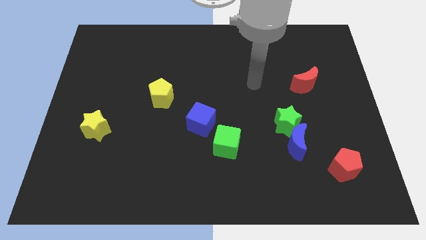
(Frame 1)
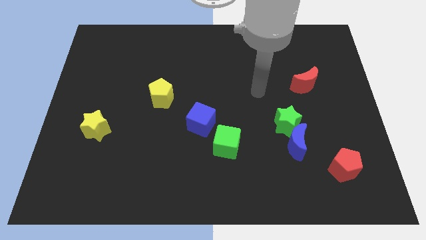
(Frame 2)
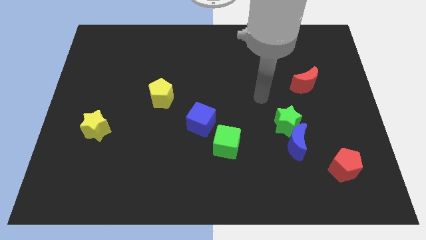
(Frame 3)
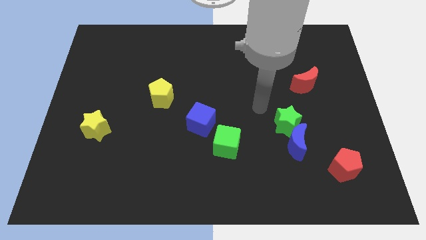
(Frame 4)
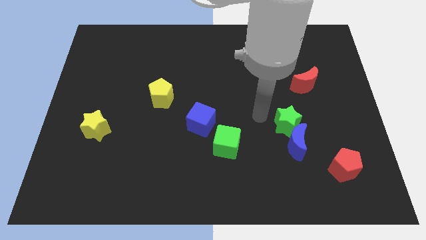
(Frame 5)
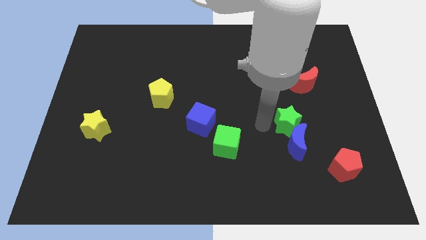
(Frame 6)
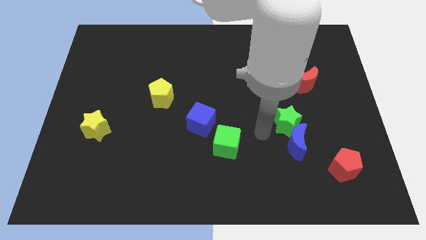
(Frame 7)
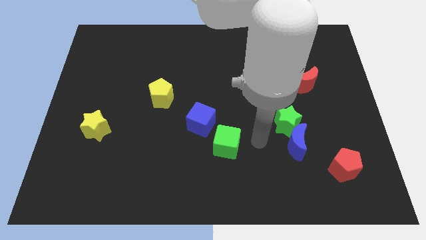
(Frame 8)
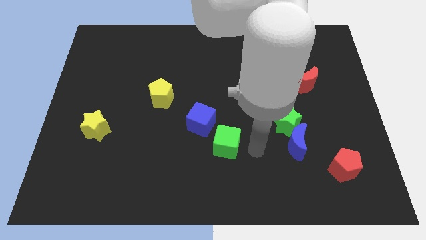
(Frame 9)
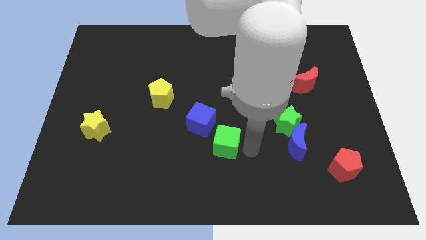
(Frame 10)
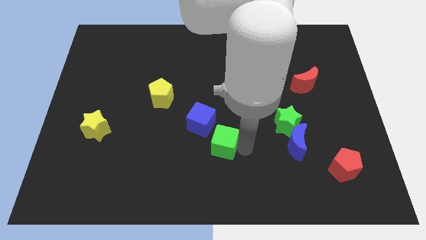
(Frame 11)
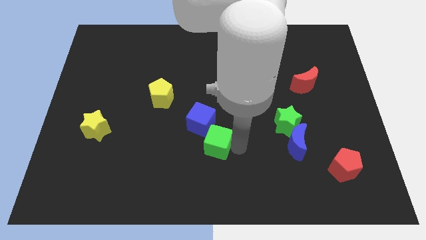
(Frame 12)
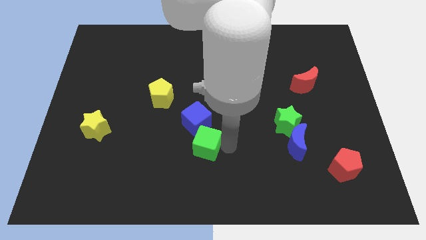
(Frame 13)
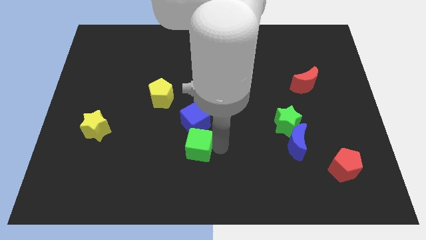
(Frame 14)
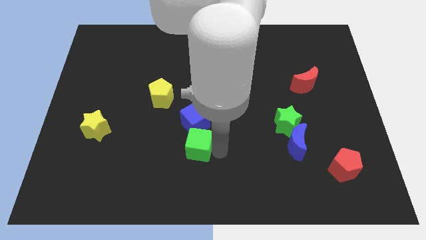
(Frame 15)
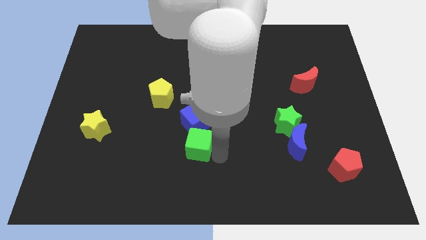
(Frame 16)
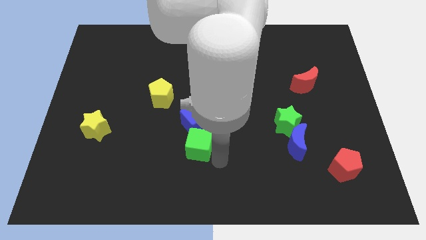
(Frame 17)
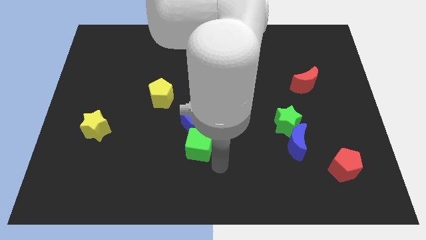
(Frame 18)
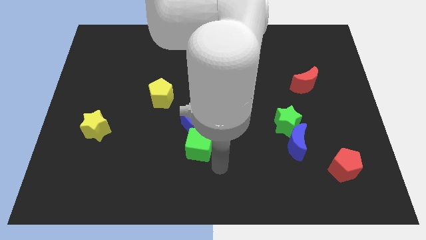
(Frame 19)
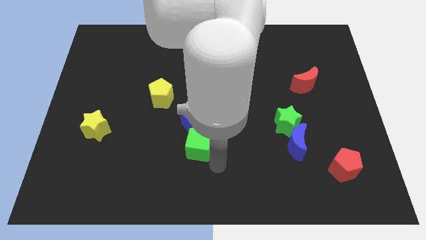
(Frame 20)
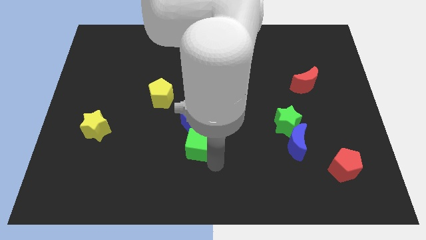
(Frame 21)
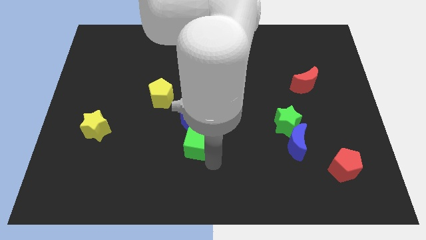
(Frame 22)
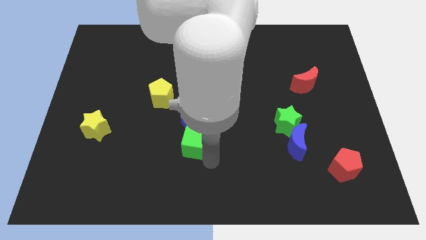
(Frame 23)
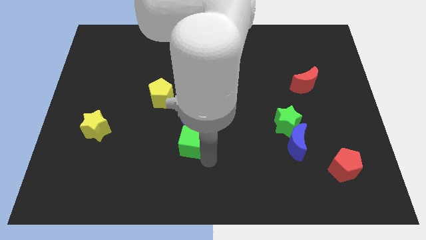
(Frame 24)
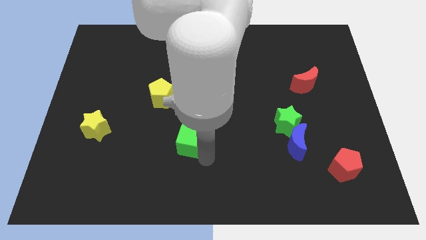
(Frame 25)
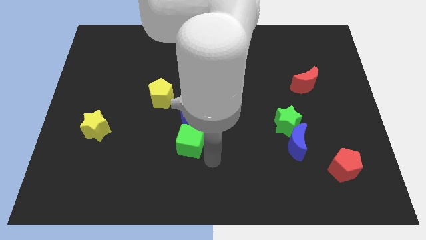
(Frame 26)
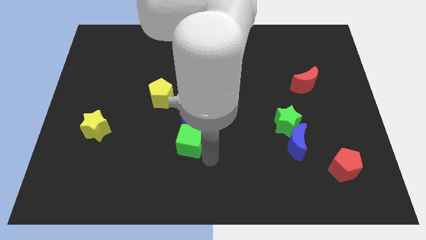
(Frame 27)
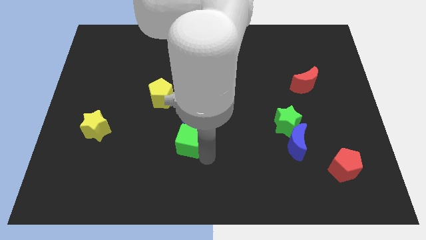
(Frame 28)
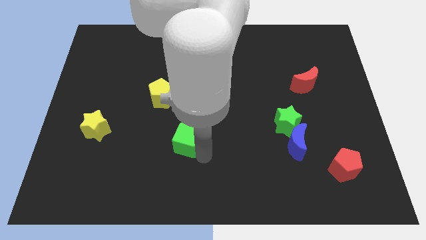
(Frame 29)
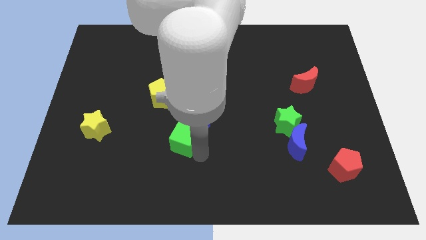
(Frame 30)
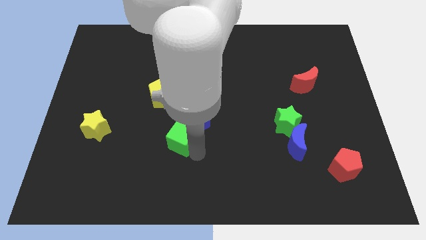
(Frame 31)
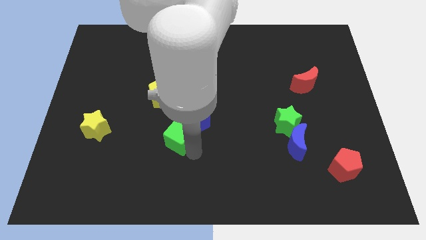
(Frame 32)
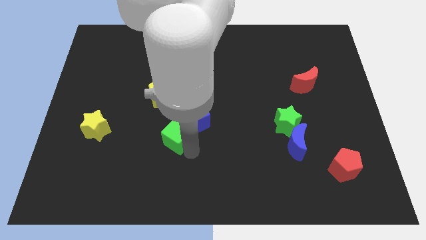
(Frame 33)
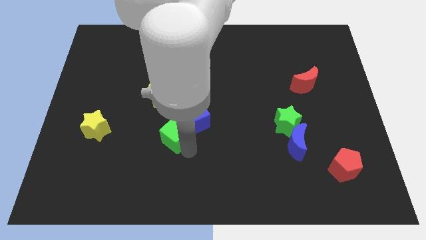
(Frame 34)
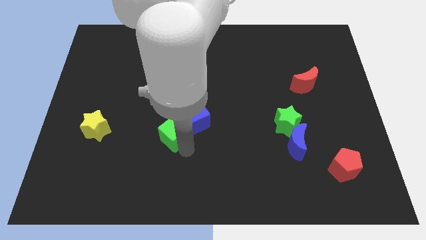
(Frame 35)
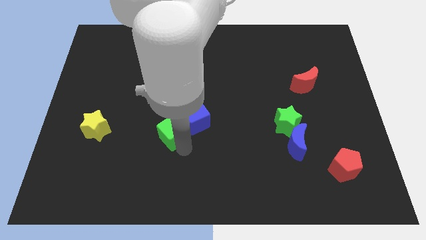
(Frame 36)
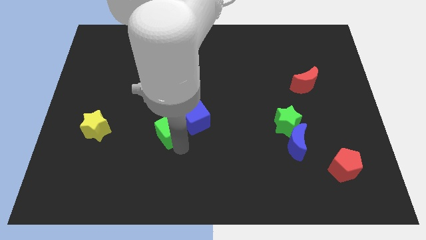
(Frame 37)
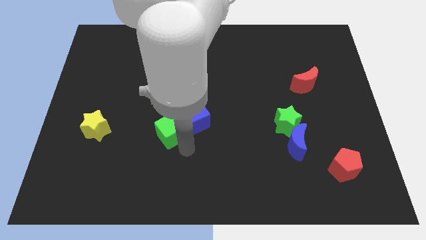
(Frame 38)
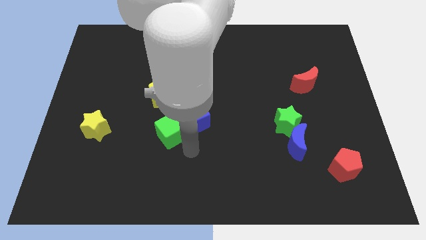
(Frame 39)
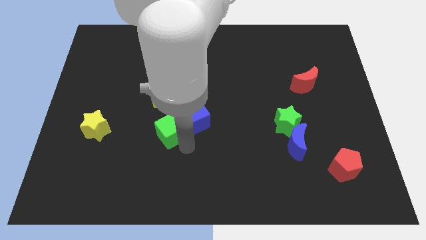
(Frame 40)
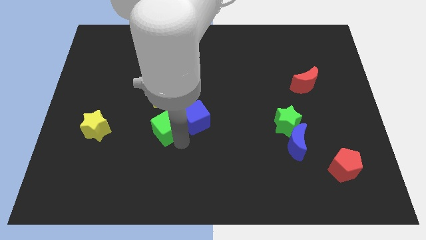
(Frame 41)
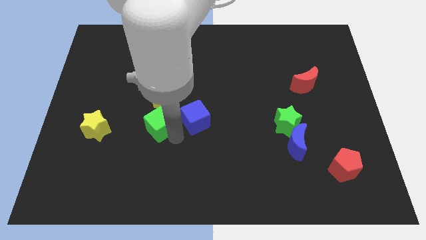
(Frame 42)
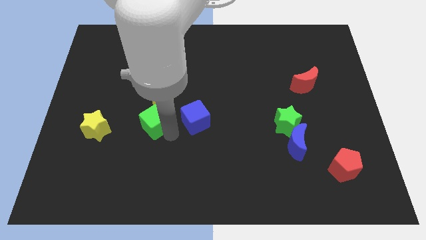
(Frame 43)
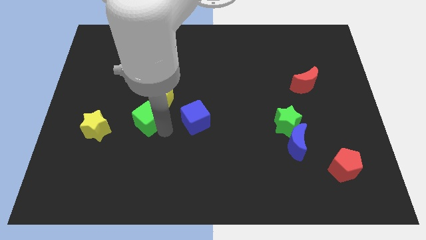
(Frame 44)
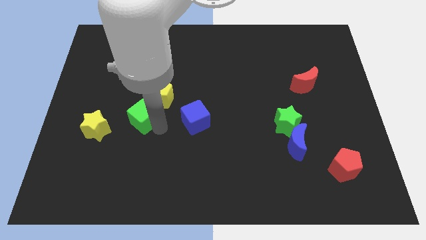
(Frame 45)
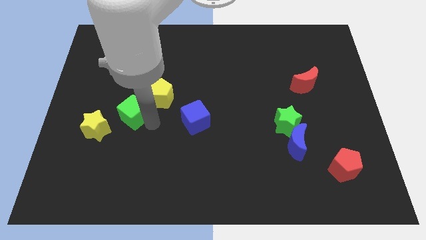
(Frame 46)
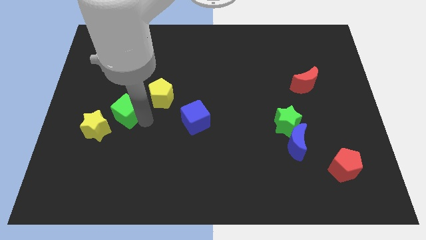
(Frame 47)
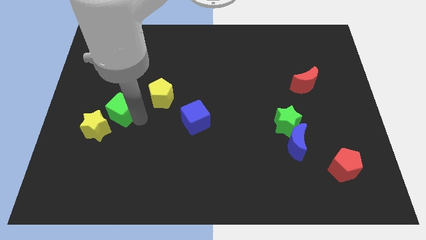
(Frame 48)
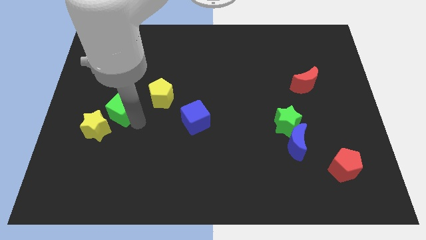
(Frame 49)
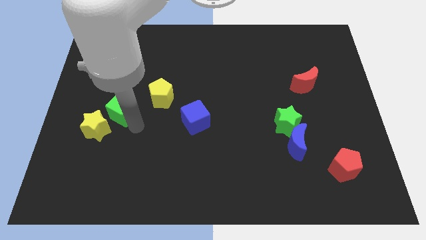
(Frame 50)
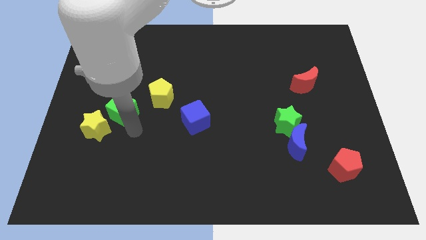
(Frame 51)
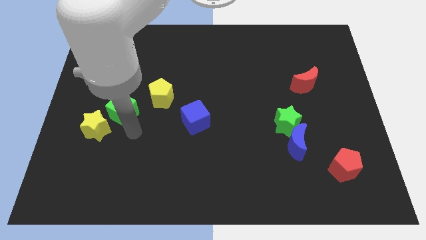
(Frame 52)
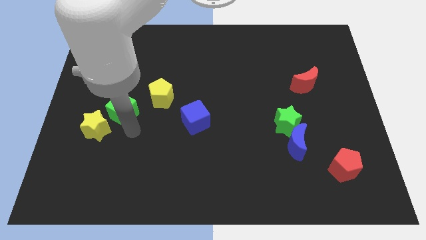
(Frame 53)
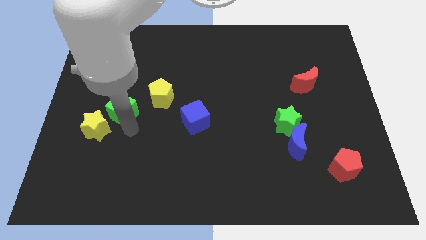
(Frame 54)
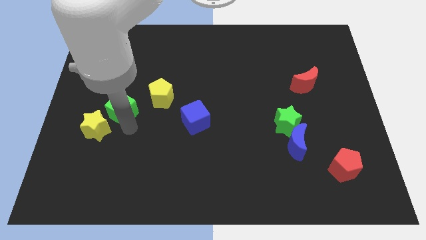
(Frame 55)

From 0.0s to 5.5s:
push the green cube to the top of the yellow star

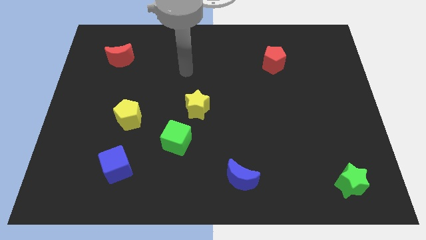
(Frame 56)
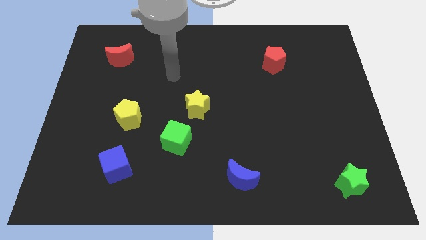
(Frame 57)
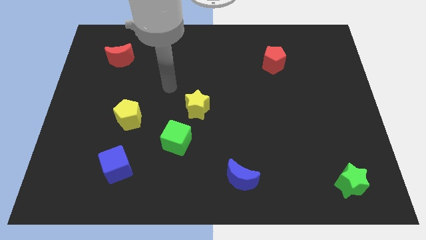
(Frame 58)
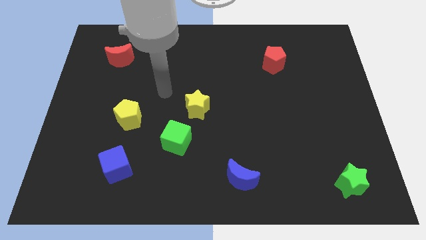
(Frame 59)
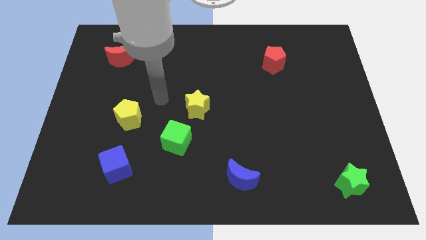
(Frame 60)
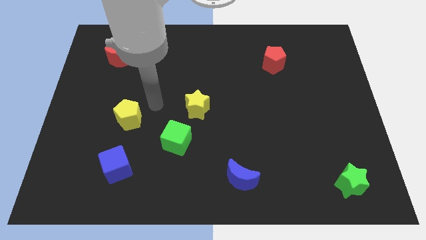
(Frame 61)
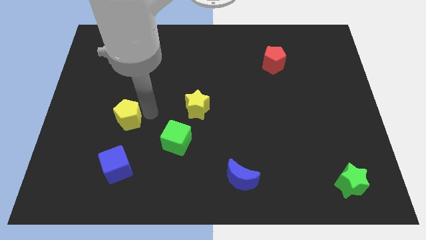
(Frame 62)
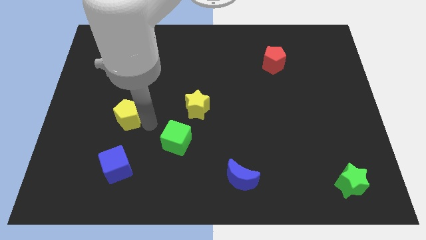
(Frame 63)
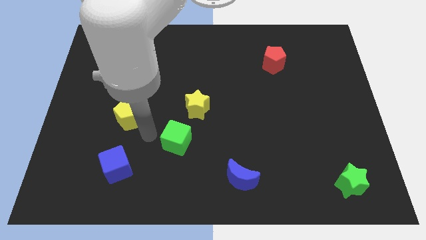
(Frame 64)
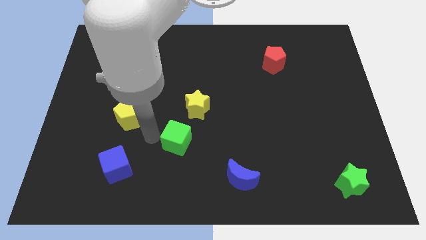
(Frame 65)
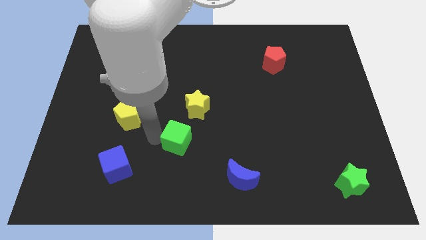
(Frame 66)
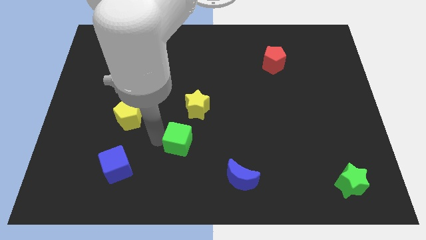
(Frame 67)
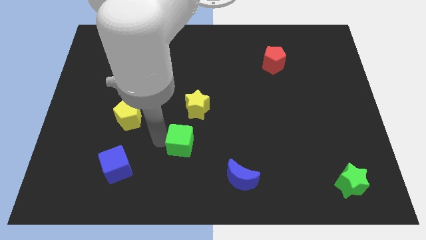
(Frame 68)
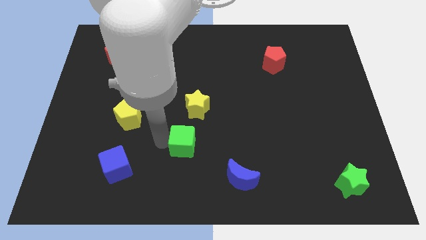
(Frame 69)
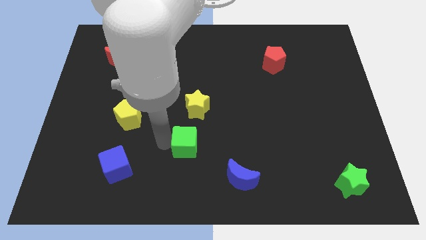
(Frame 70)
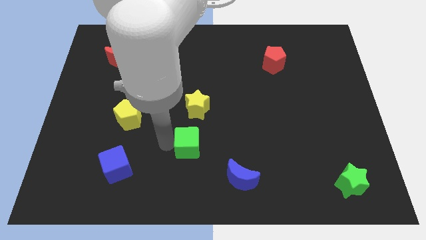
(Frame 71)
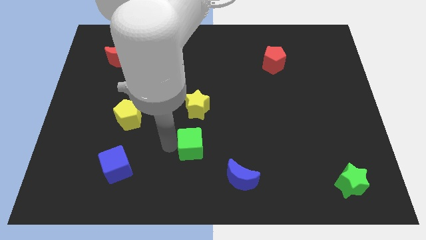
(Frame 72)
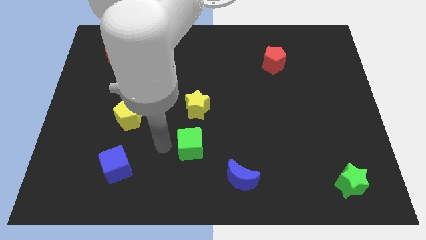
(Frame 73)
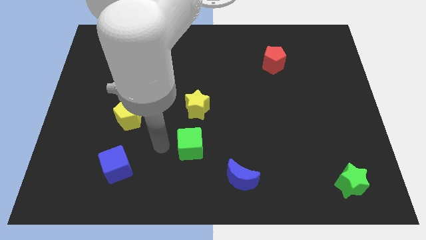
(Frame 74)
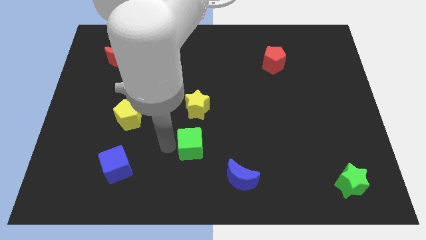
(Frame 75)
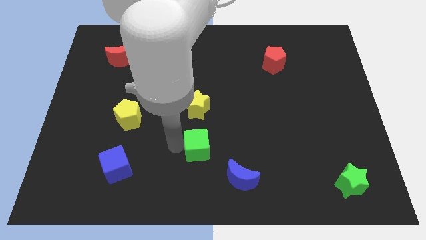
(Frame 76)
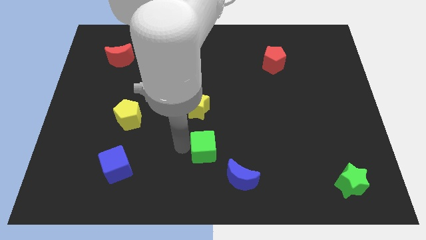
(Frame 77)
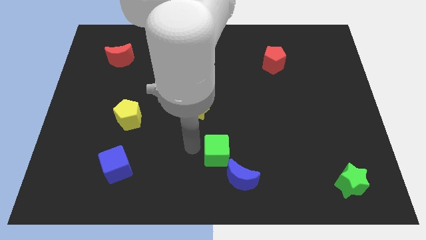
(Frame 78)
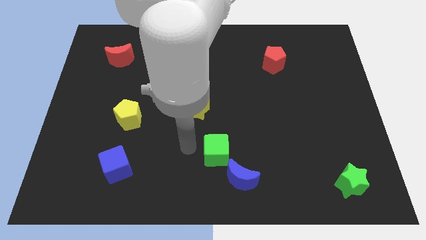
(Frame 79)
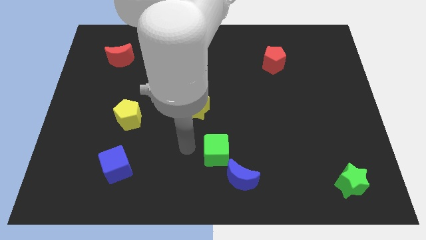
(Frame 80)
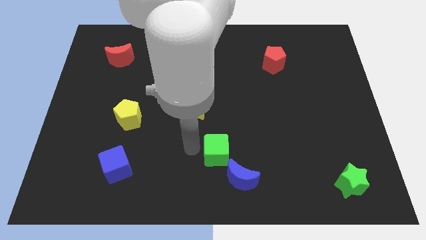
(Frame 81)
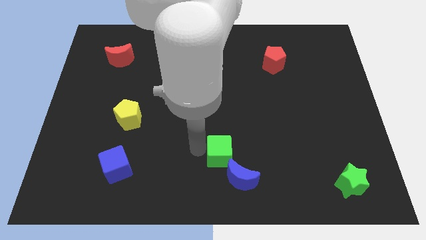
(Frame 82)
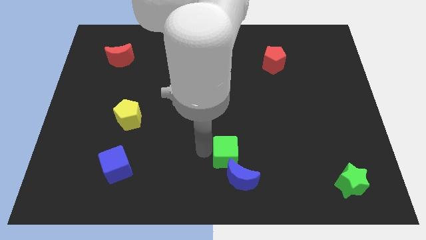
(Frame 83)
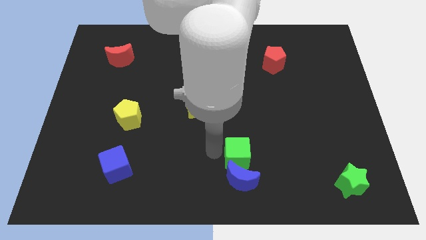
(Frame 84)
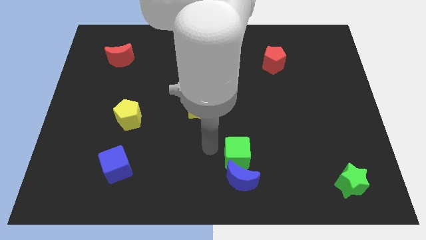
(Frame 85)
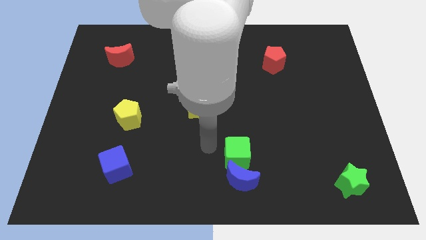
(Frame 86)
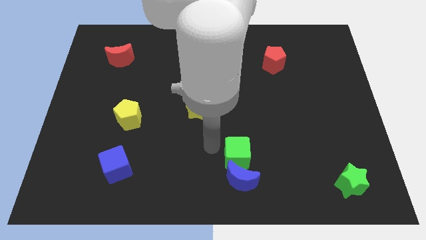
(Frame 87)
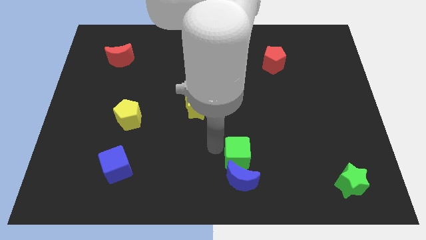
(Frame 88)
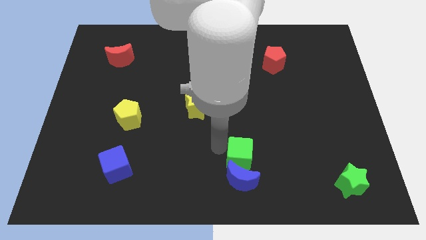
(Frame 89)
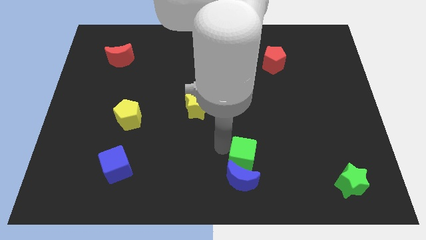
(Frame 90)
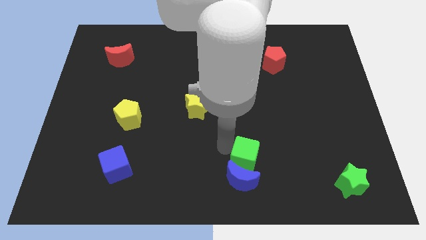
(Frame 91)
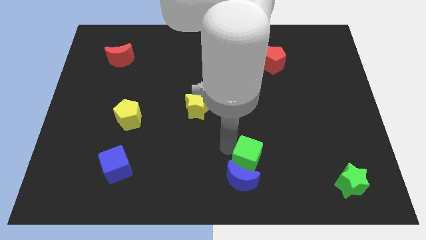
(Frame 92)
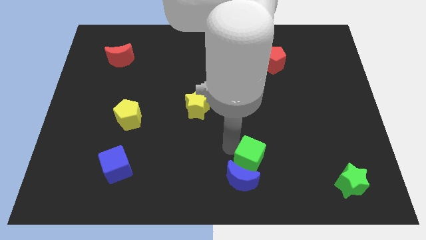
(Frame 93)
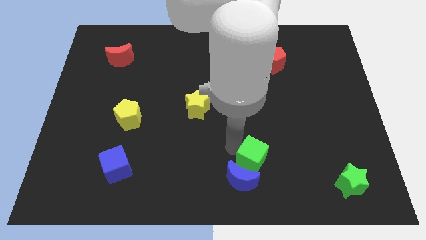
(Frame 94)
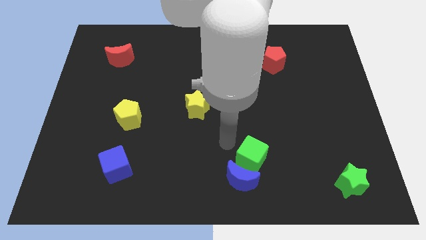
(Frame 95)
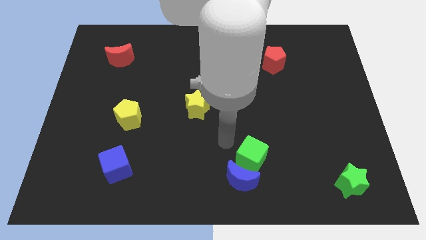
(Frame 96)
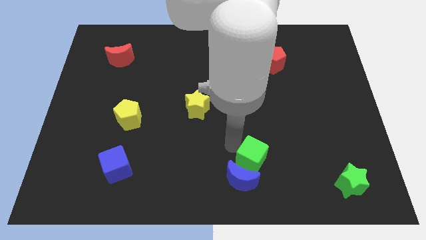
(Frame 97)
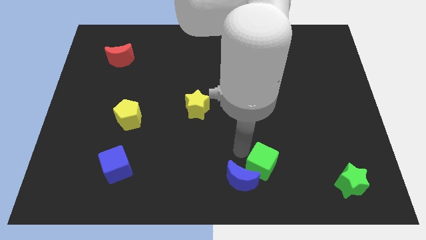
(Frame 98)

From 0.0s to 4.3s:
push the green cube just right of the blue moon
